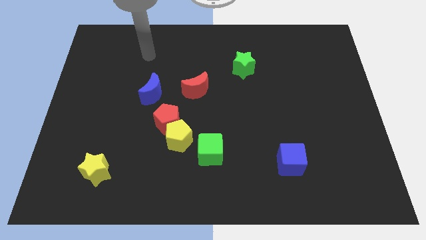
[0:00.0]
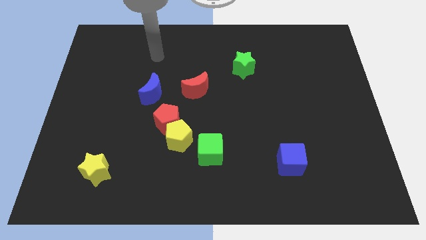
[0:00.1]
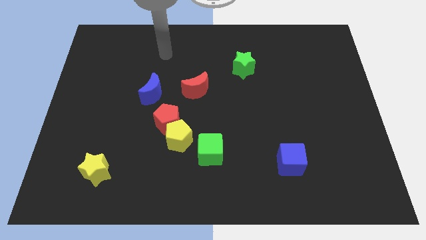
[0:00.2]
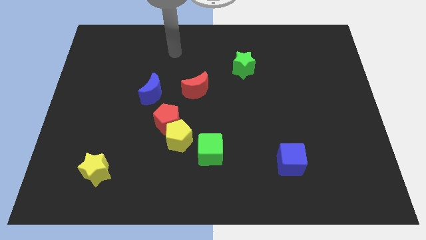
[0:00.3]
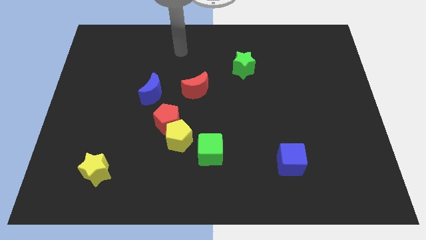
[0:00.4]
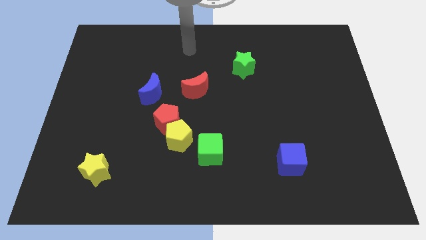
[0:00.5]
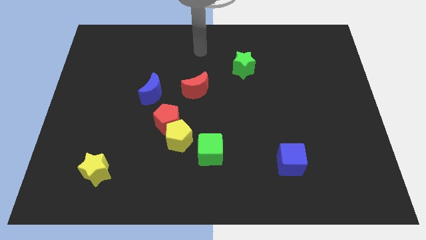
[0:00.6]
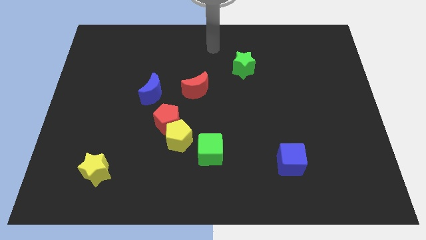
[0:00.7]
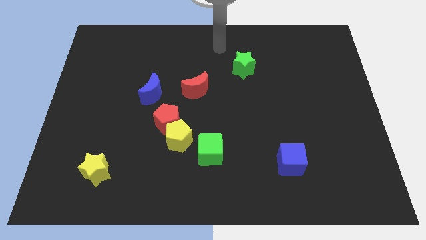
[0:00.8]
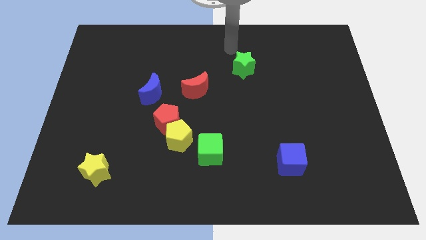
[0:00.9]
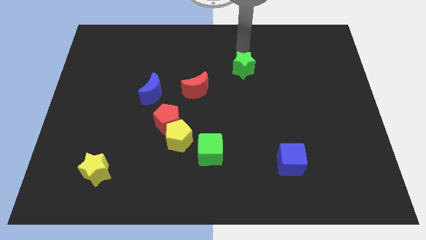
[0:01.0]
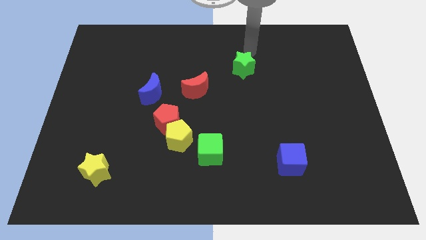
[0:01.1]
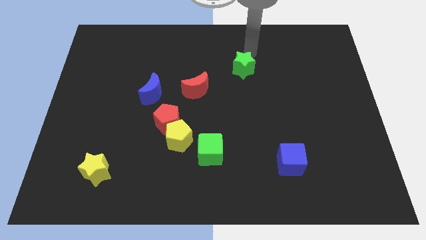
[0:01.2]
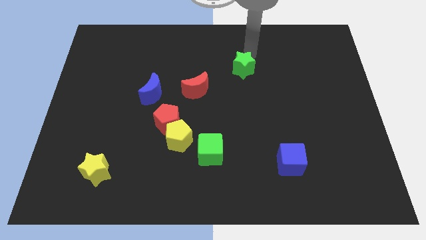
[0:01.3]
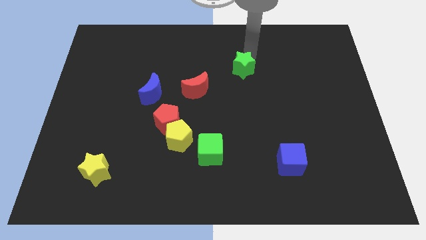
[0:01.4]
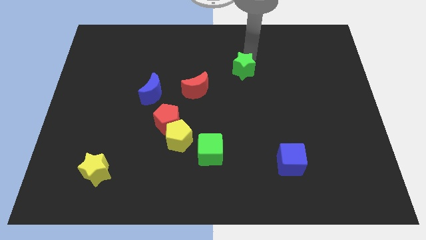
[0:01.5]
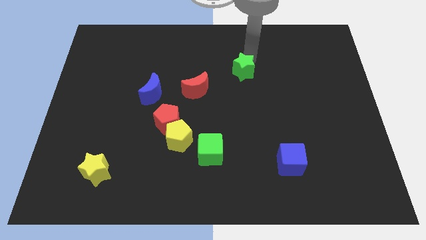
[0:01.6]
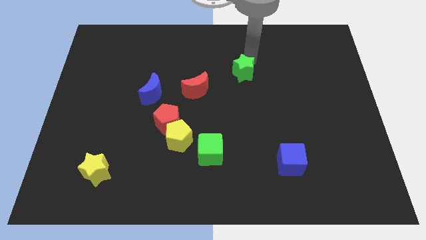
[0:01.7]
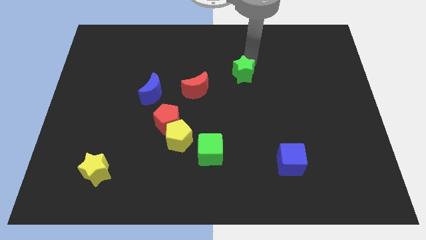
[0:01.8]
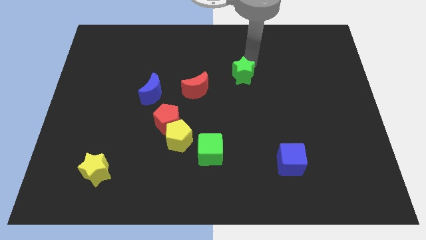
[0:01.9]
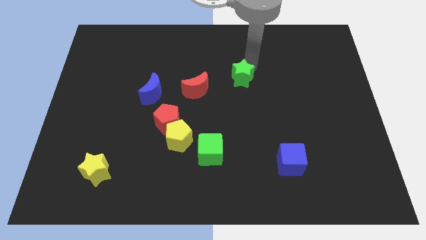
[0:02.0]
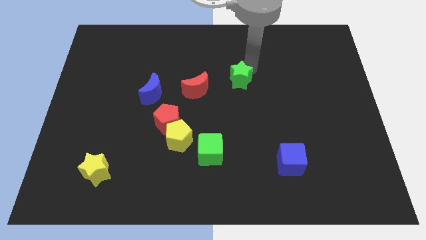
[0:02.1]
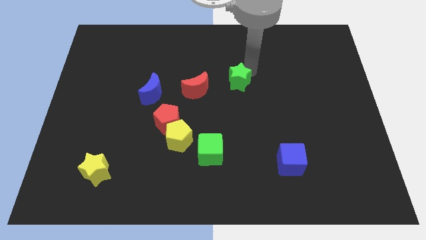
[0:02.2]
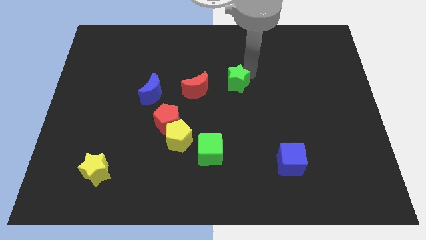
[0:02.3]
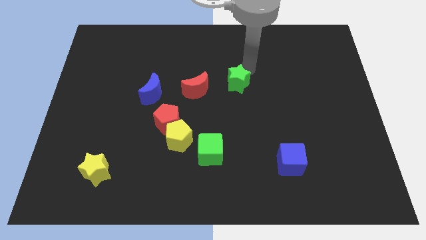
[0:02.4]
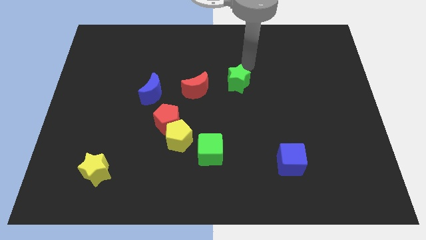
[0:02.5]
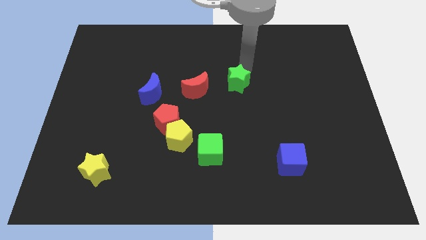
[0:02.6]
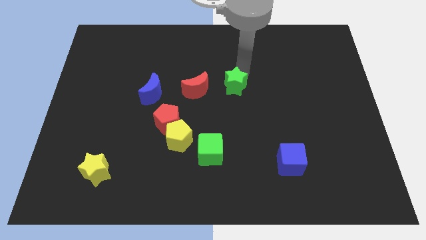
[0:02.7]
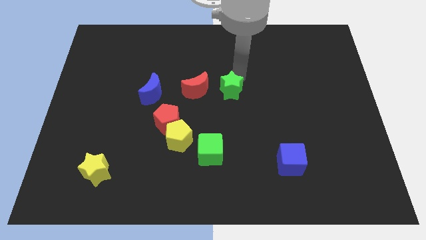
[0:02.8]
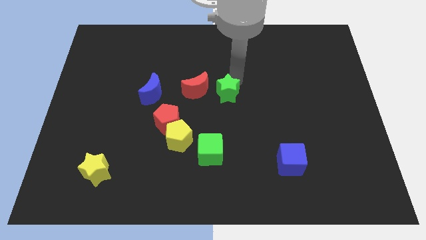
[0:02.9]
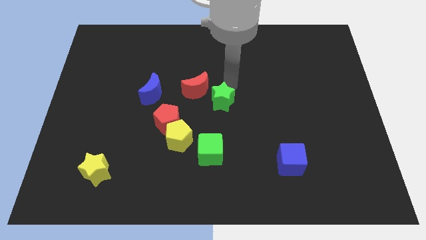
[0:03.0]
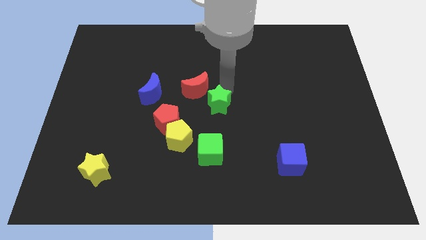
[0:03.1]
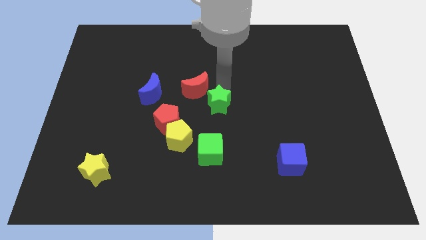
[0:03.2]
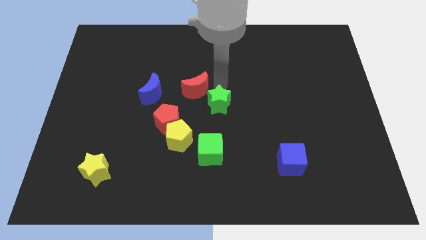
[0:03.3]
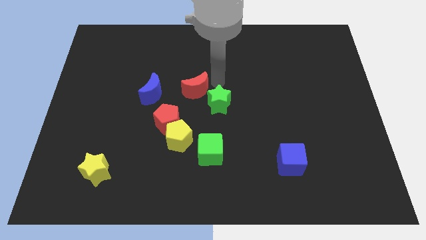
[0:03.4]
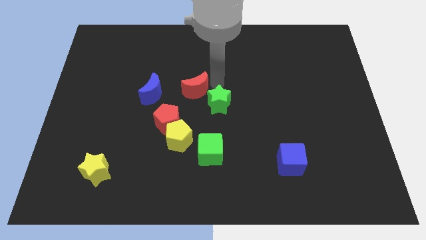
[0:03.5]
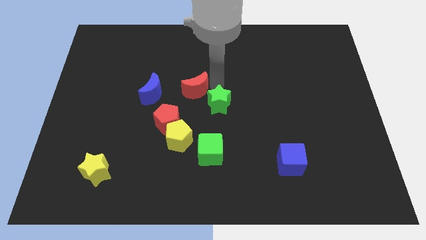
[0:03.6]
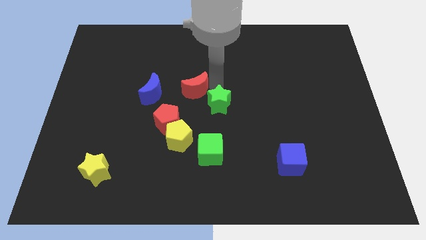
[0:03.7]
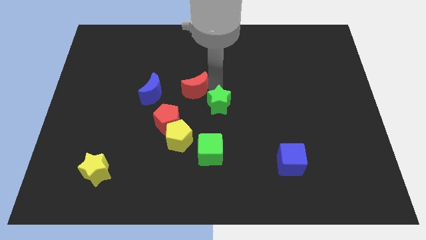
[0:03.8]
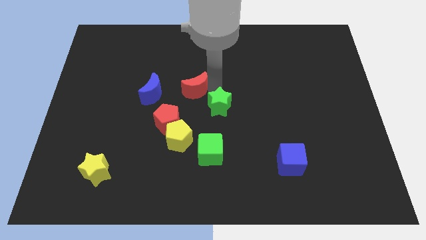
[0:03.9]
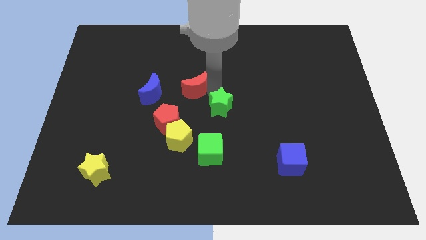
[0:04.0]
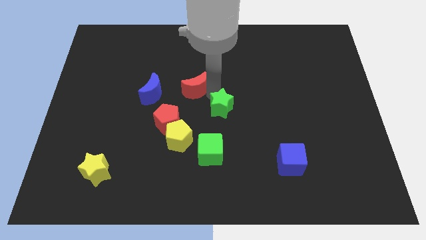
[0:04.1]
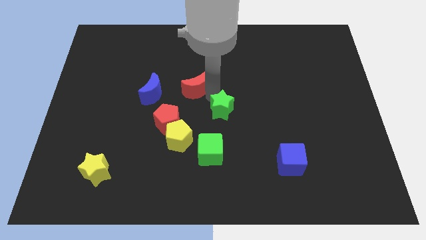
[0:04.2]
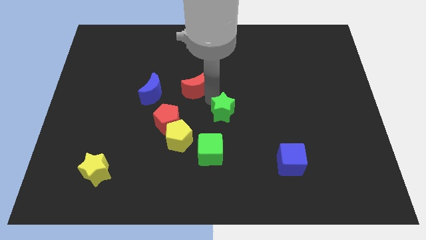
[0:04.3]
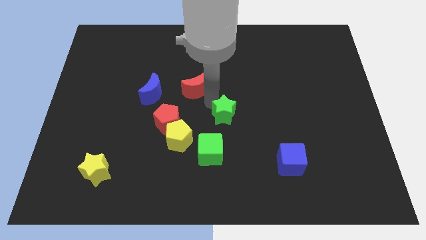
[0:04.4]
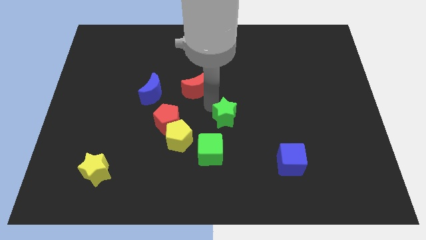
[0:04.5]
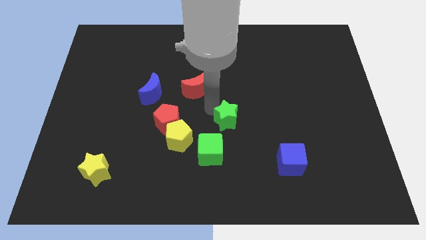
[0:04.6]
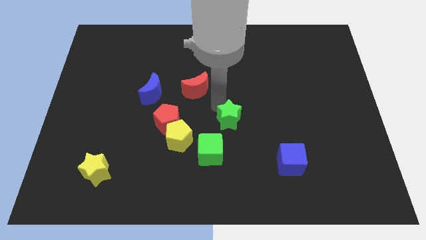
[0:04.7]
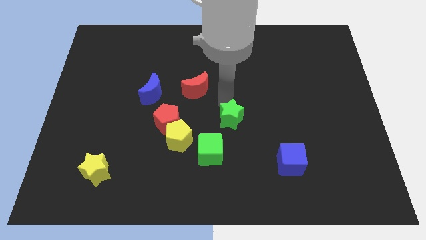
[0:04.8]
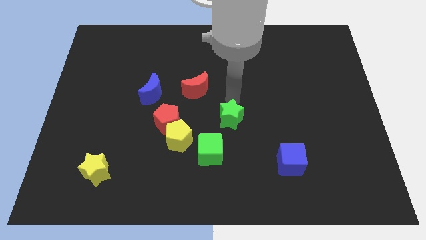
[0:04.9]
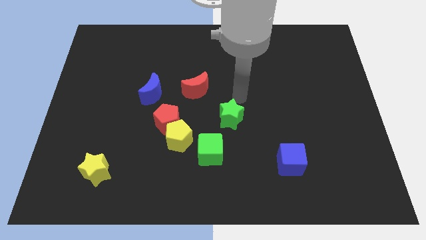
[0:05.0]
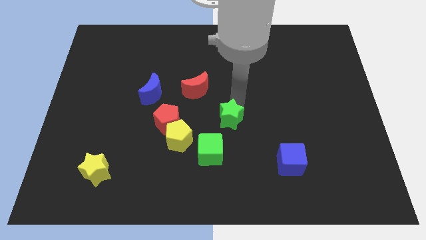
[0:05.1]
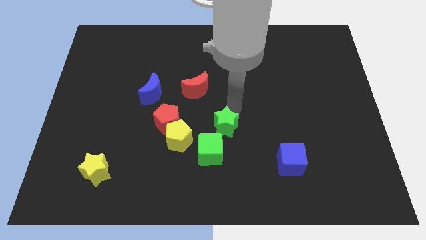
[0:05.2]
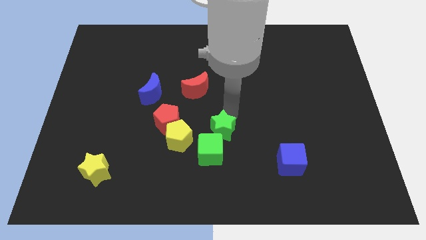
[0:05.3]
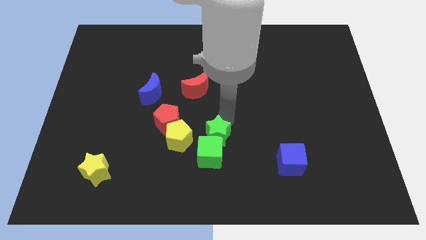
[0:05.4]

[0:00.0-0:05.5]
push the green star to the green cube

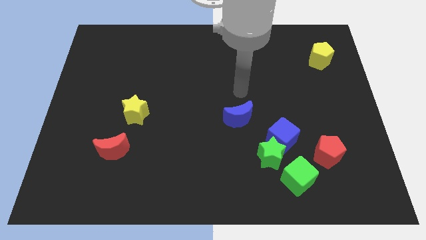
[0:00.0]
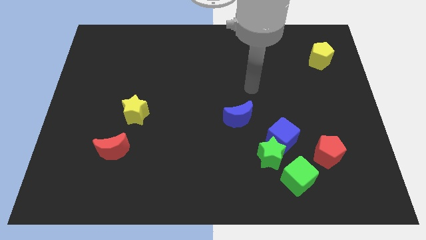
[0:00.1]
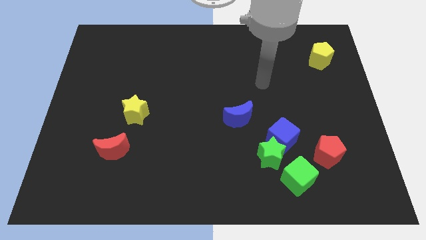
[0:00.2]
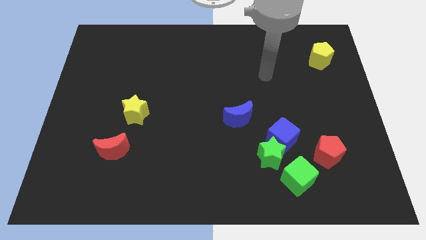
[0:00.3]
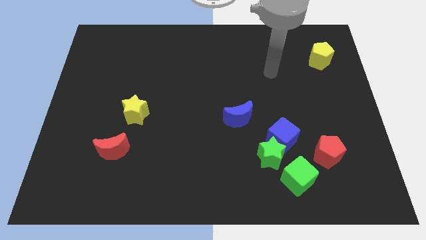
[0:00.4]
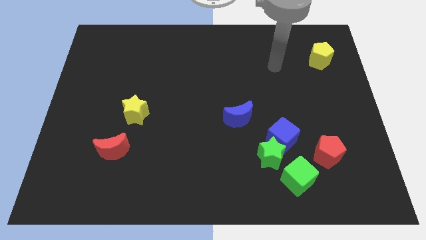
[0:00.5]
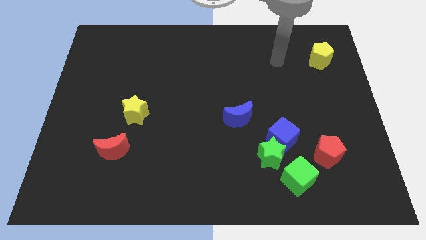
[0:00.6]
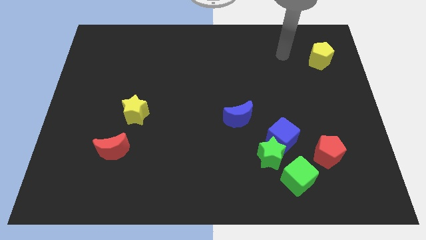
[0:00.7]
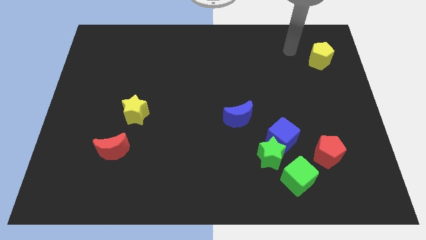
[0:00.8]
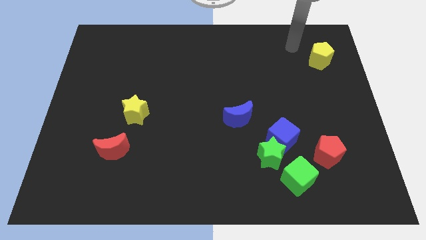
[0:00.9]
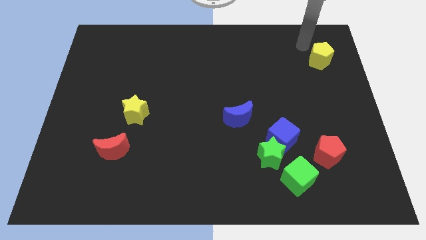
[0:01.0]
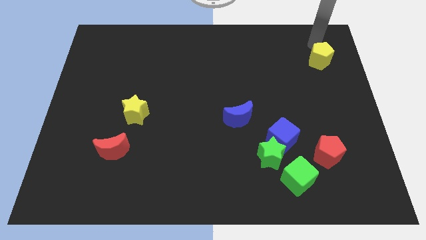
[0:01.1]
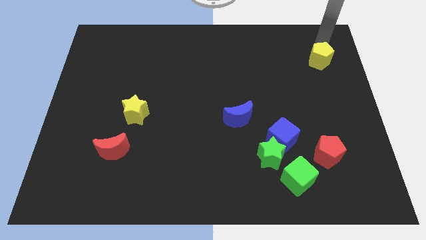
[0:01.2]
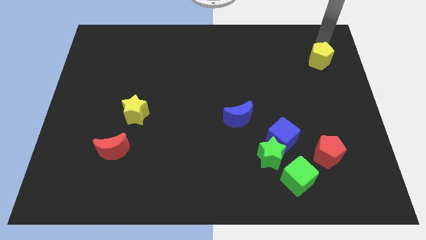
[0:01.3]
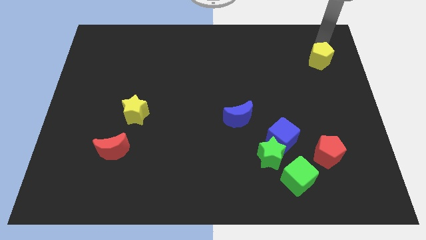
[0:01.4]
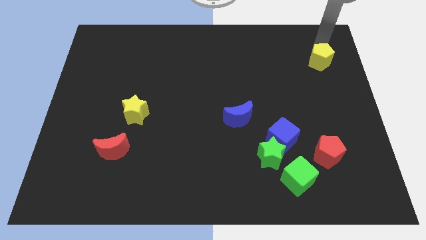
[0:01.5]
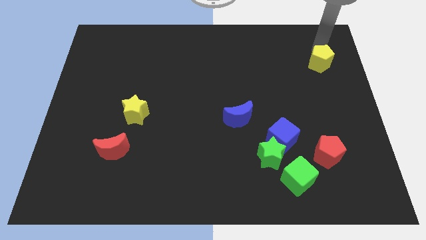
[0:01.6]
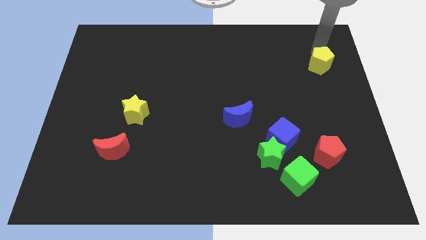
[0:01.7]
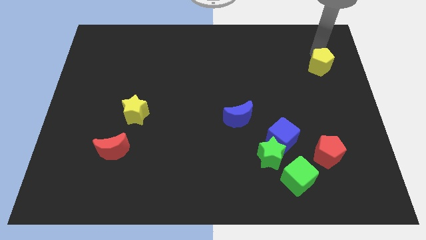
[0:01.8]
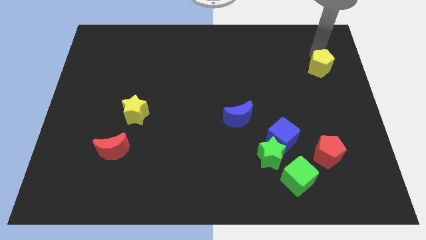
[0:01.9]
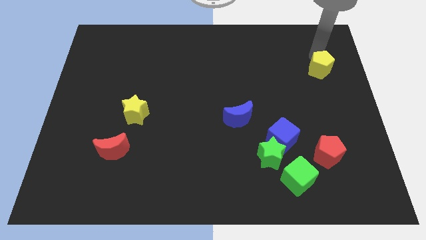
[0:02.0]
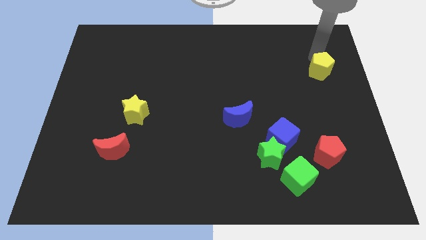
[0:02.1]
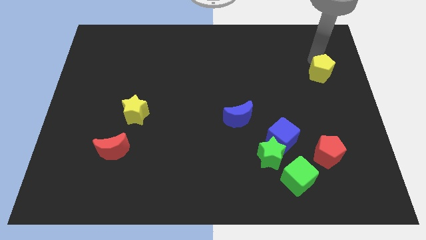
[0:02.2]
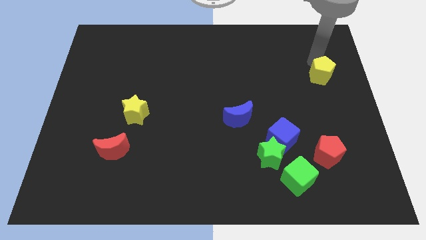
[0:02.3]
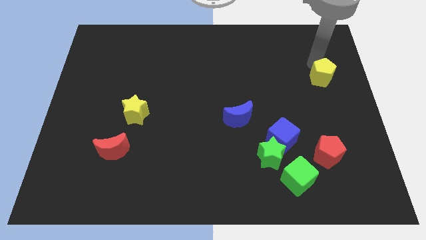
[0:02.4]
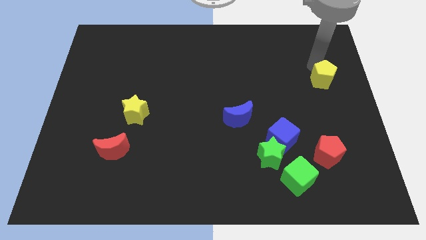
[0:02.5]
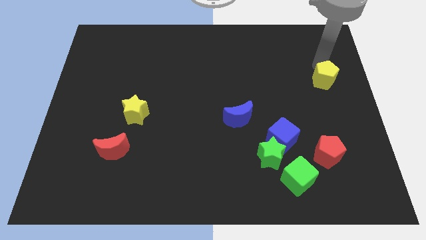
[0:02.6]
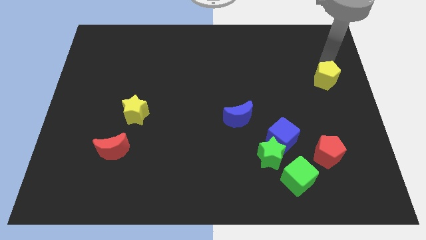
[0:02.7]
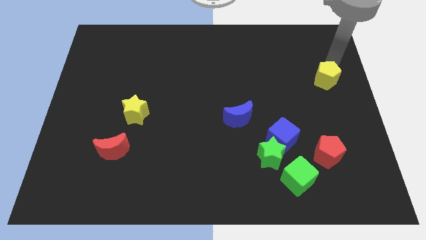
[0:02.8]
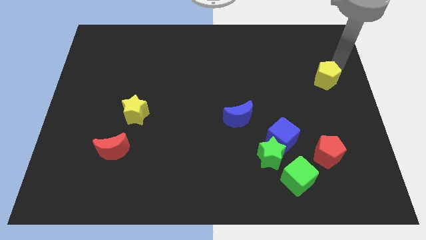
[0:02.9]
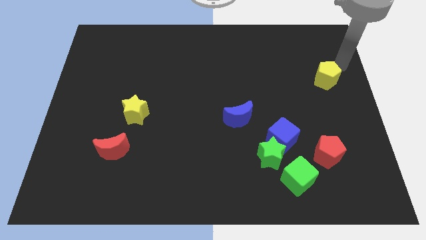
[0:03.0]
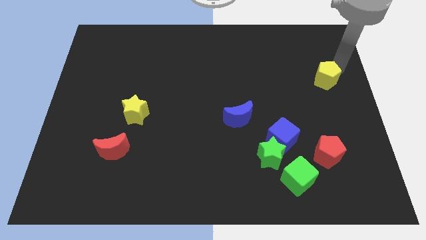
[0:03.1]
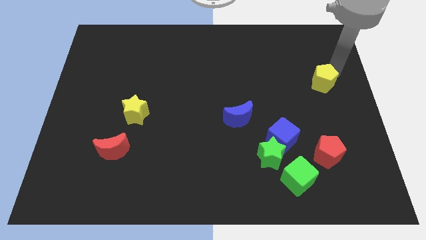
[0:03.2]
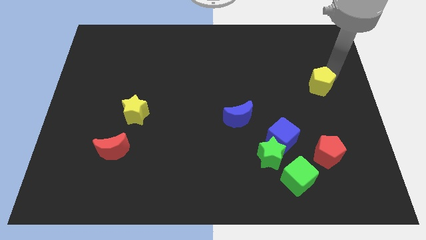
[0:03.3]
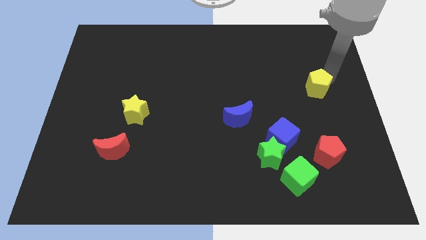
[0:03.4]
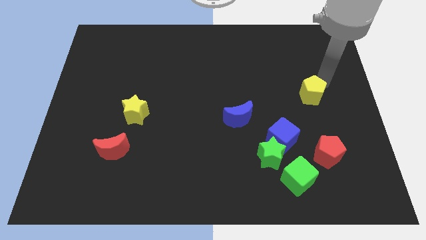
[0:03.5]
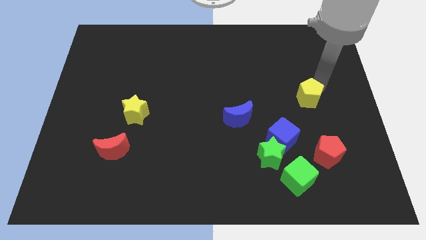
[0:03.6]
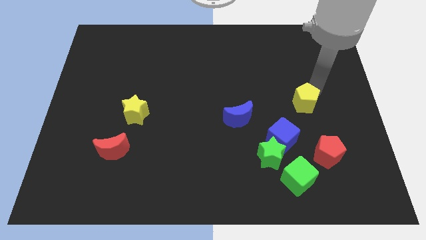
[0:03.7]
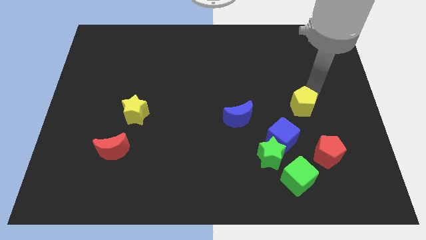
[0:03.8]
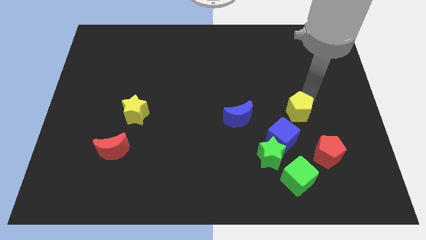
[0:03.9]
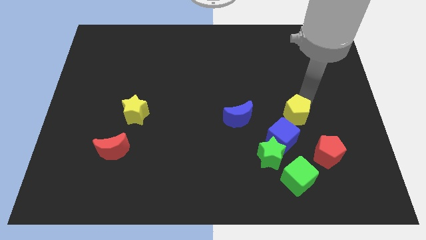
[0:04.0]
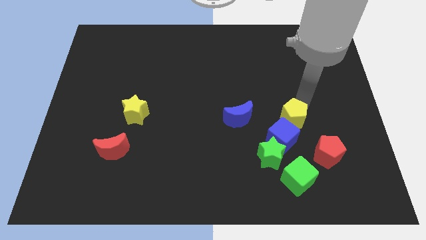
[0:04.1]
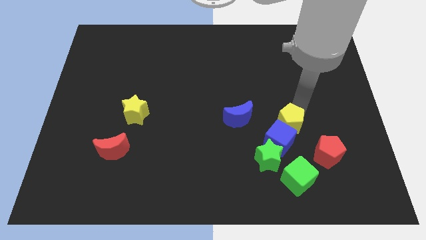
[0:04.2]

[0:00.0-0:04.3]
slide the yellow pentagon close to the blue cube
